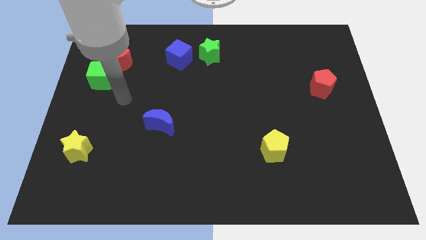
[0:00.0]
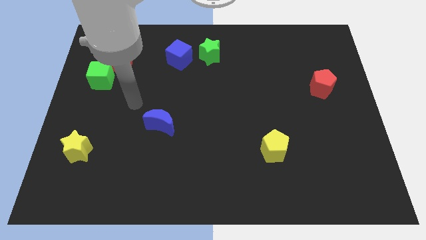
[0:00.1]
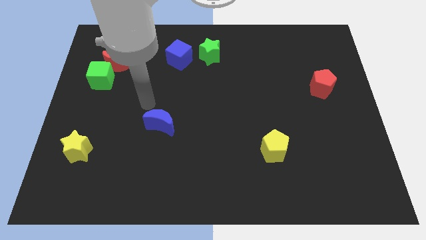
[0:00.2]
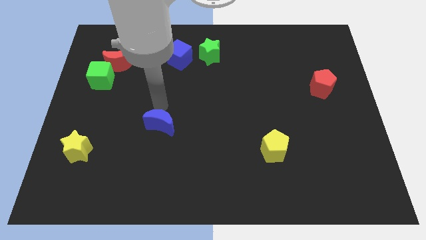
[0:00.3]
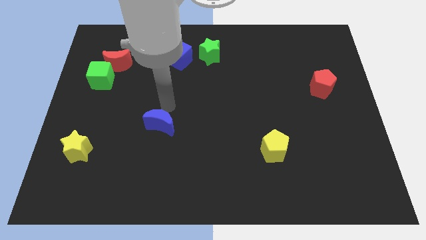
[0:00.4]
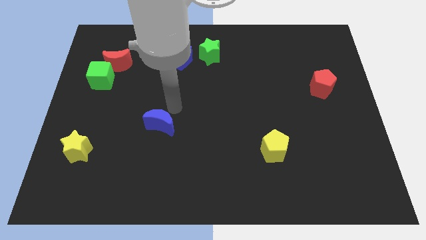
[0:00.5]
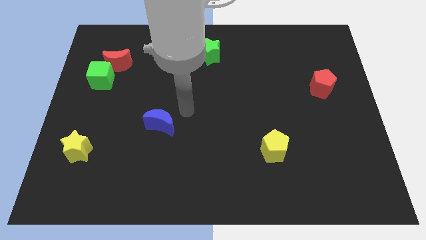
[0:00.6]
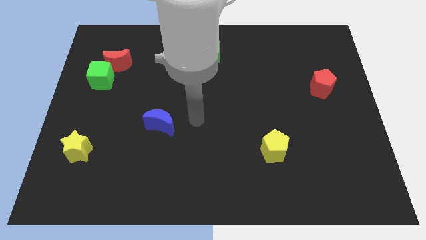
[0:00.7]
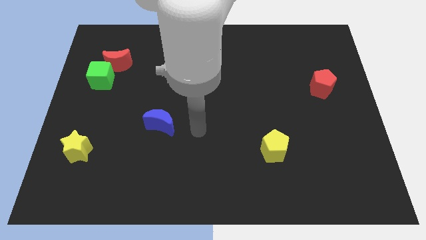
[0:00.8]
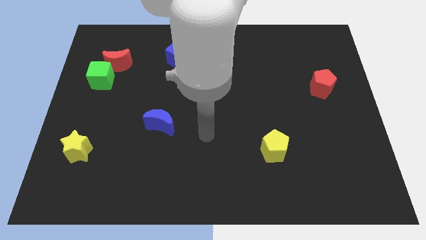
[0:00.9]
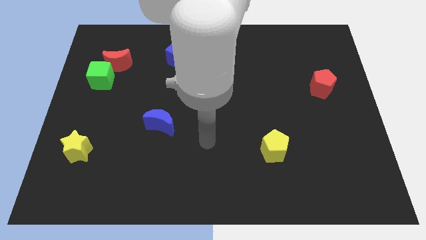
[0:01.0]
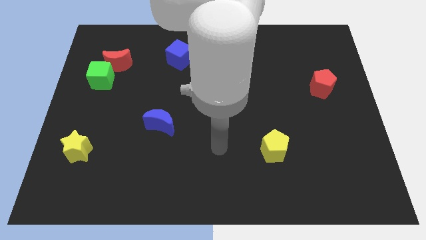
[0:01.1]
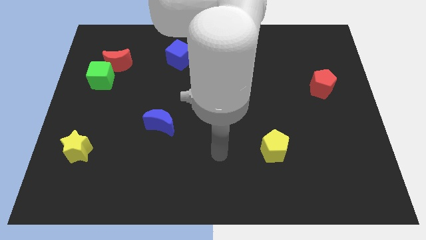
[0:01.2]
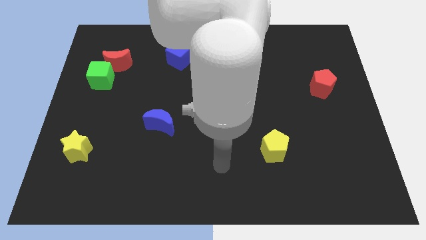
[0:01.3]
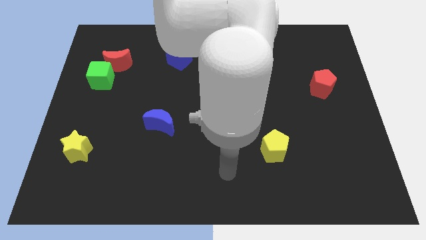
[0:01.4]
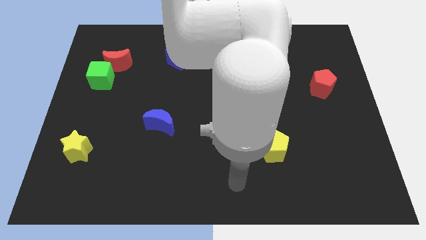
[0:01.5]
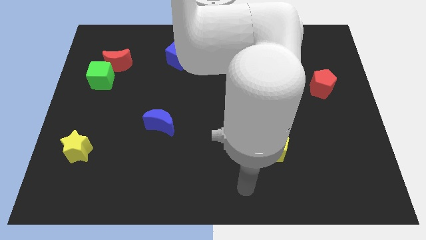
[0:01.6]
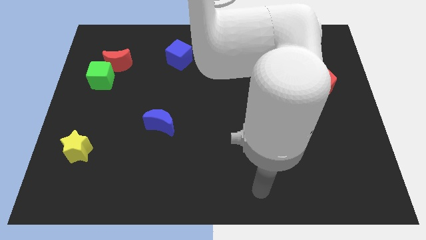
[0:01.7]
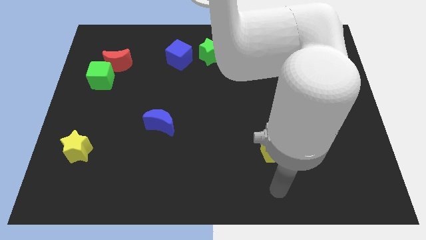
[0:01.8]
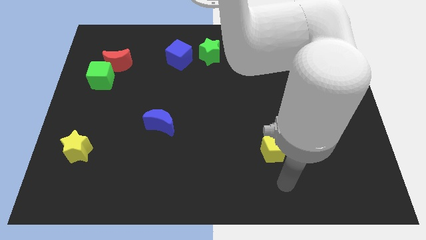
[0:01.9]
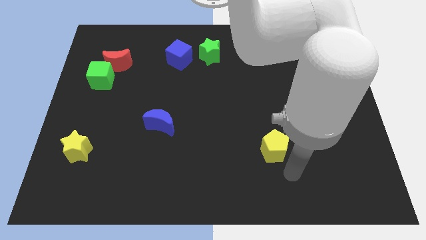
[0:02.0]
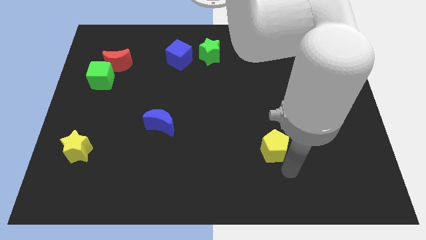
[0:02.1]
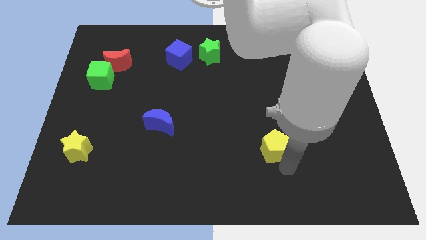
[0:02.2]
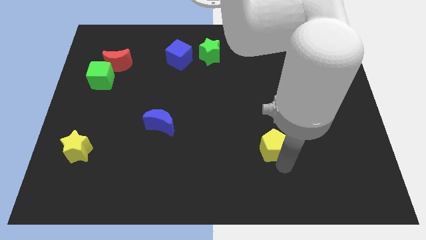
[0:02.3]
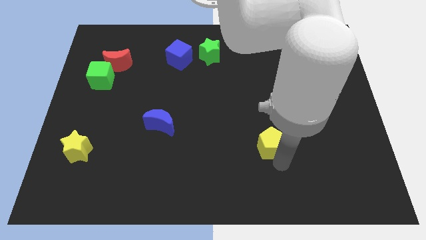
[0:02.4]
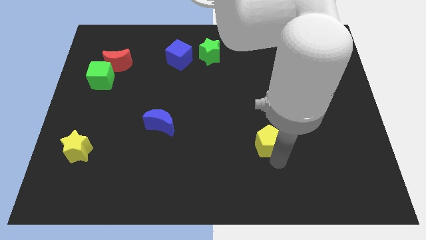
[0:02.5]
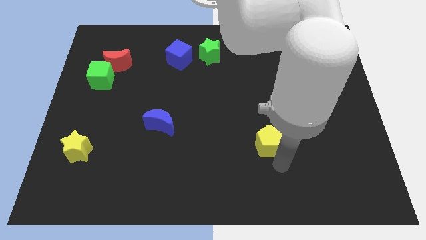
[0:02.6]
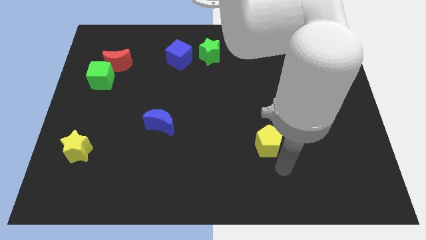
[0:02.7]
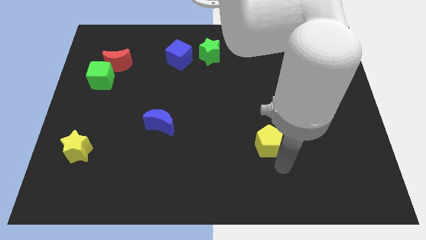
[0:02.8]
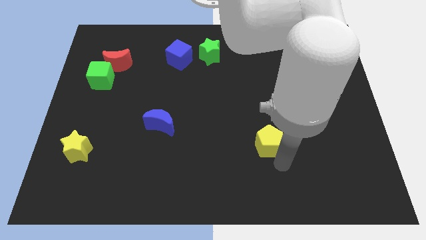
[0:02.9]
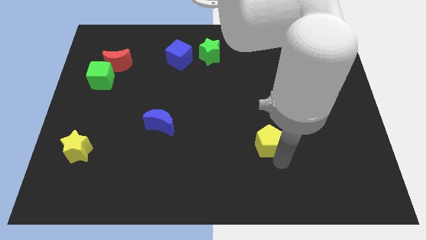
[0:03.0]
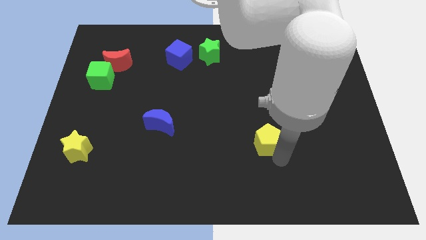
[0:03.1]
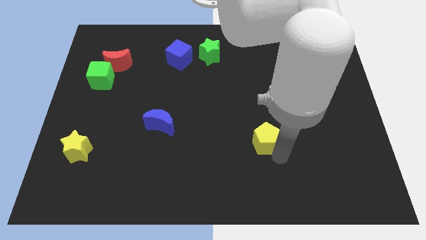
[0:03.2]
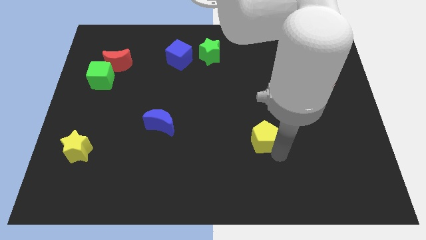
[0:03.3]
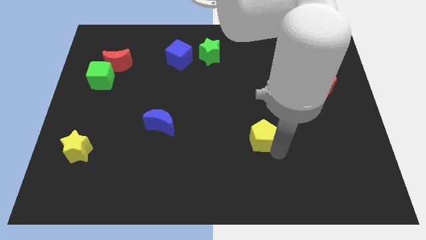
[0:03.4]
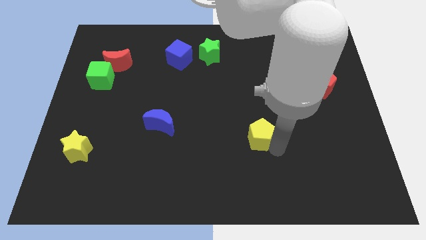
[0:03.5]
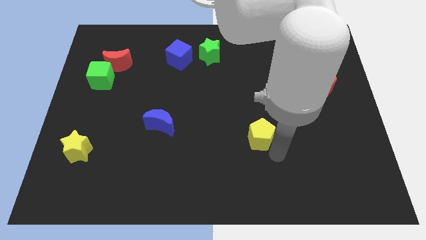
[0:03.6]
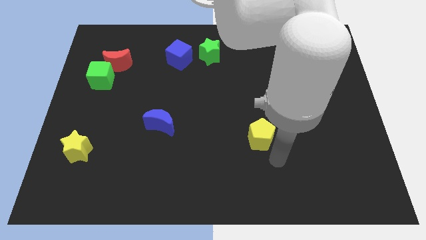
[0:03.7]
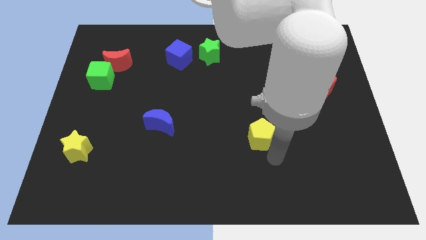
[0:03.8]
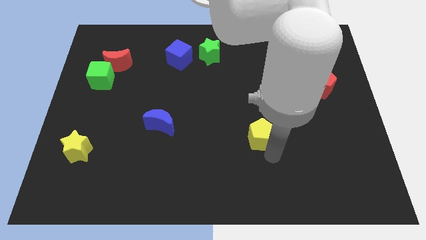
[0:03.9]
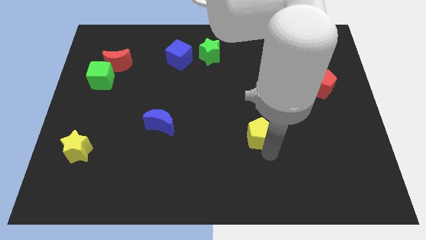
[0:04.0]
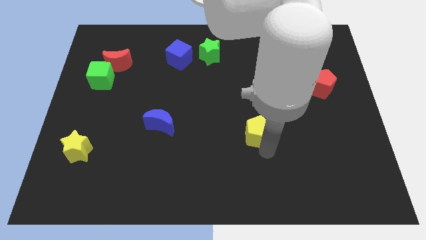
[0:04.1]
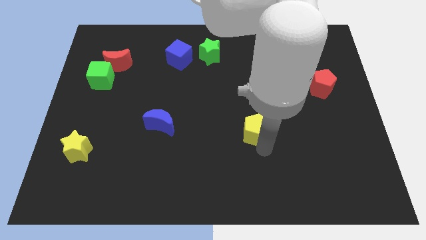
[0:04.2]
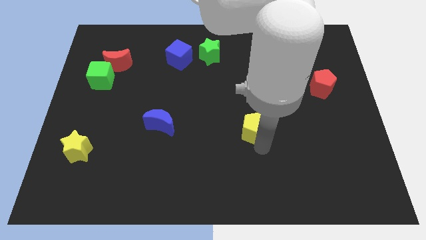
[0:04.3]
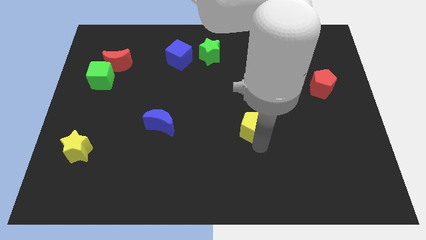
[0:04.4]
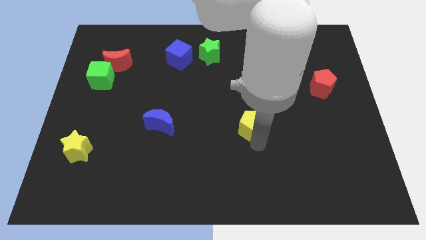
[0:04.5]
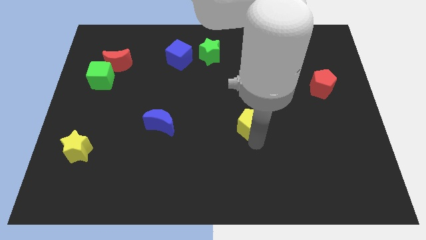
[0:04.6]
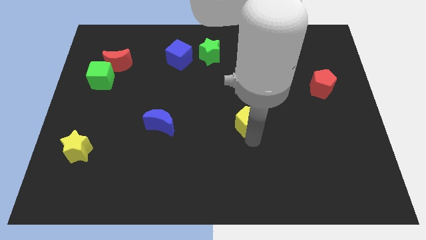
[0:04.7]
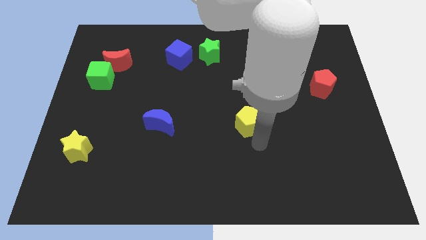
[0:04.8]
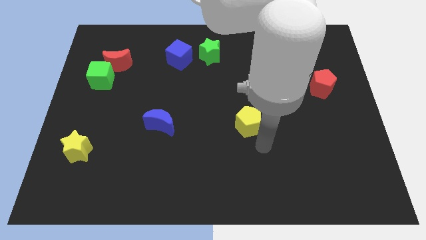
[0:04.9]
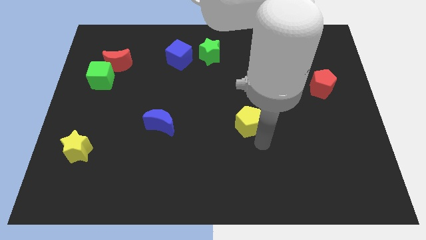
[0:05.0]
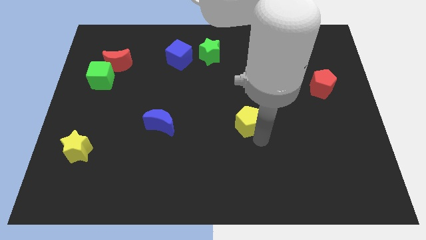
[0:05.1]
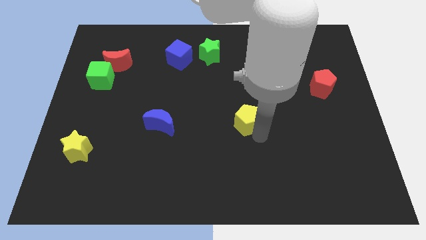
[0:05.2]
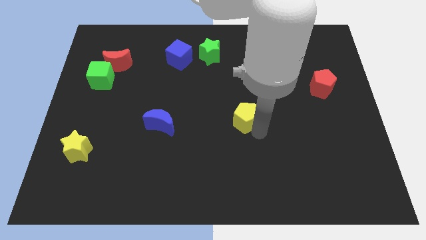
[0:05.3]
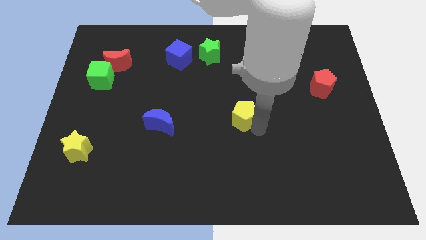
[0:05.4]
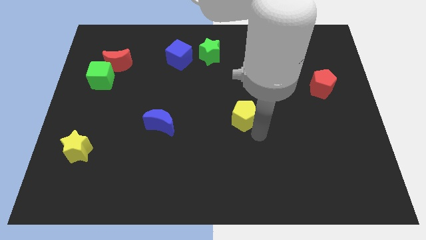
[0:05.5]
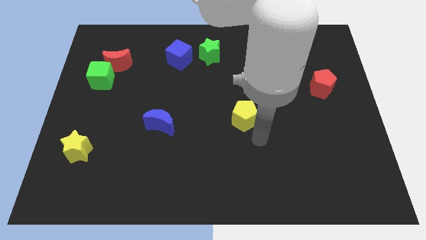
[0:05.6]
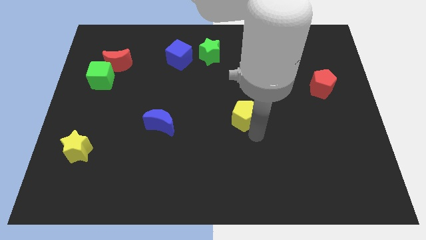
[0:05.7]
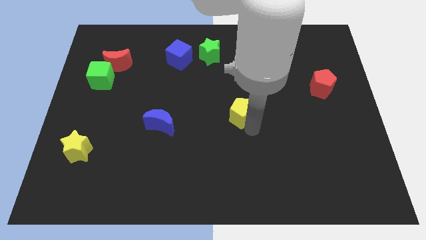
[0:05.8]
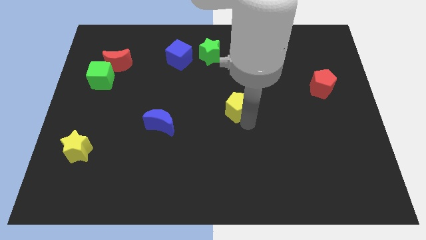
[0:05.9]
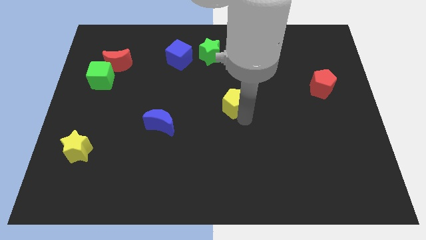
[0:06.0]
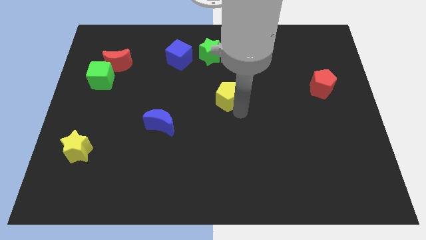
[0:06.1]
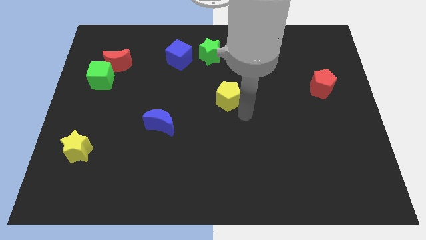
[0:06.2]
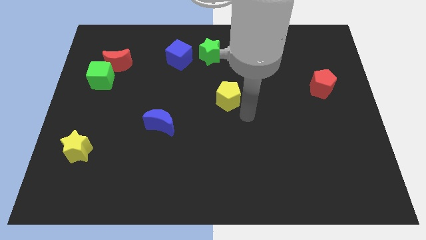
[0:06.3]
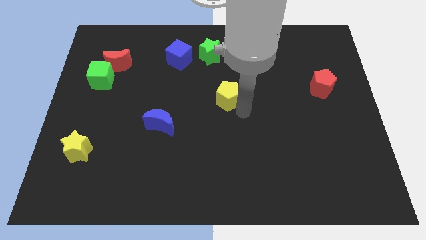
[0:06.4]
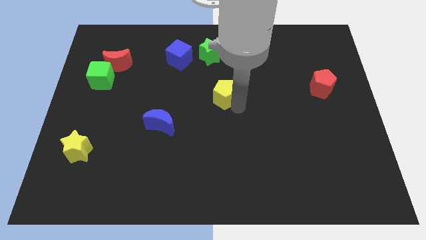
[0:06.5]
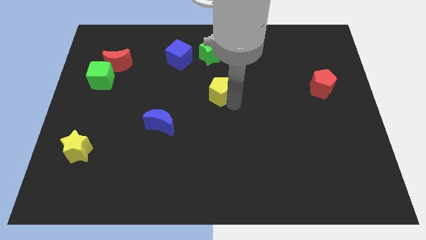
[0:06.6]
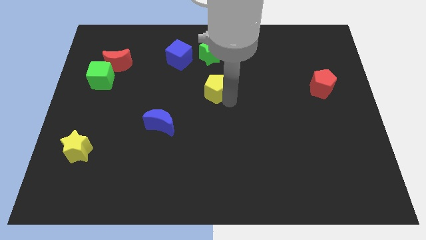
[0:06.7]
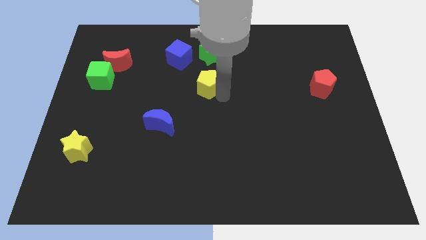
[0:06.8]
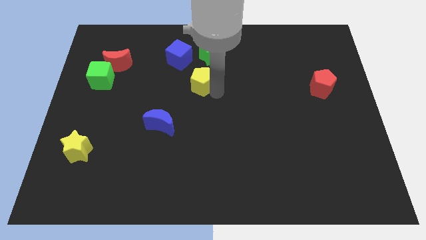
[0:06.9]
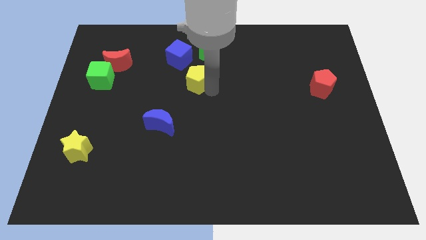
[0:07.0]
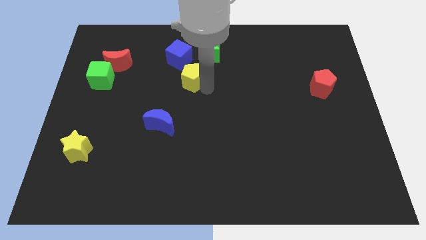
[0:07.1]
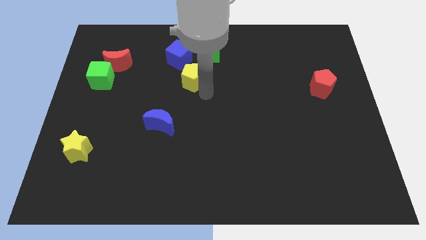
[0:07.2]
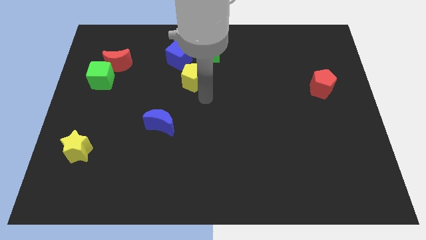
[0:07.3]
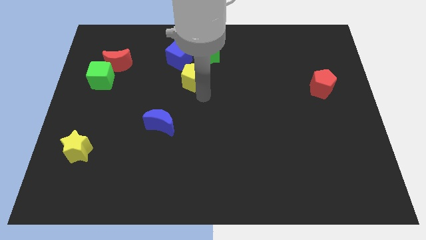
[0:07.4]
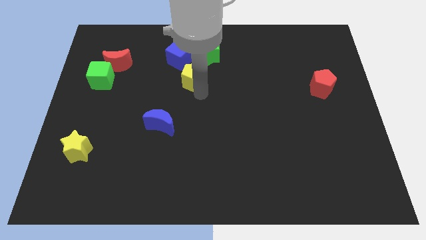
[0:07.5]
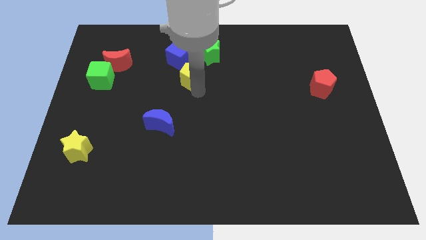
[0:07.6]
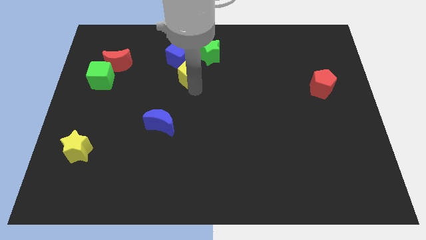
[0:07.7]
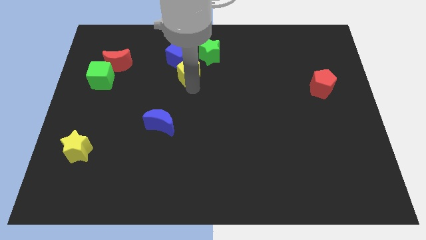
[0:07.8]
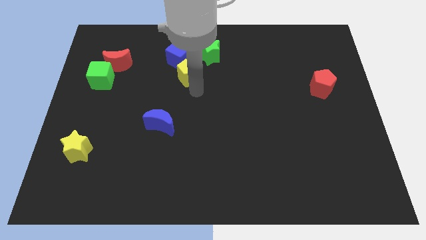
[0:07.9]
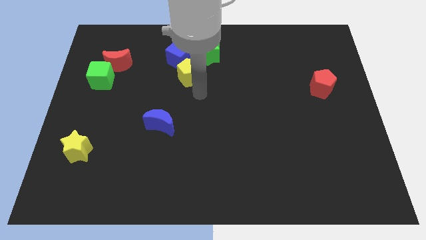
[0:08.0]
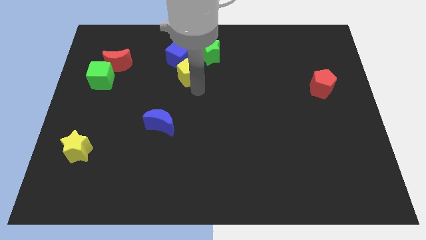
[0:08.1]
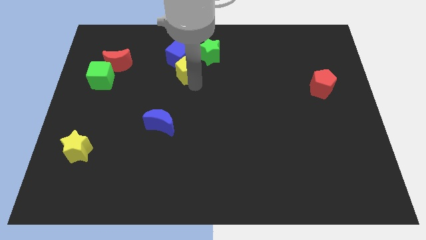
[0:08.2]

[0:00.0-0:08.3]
move the yellow pentagon next to the blue cube

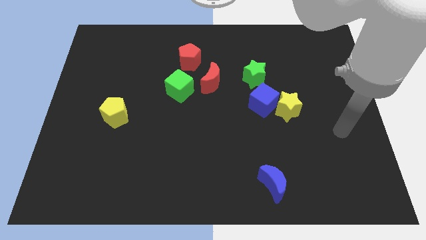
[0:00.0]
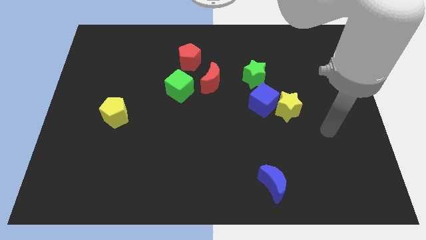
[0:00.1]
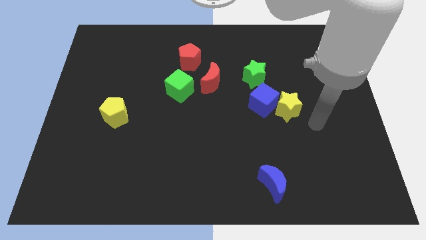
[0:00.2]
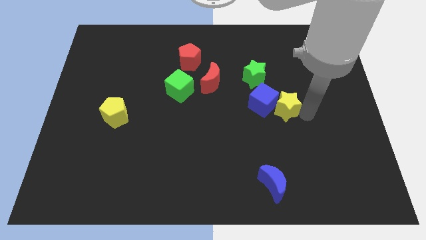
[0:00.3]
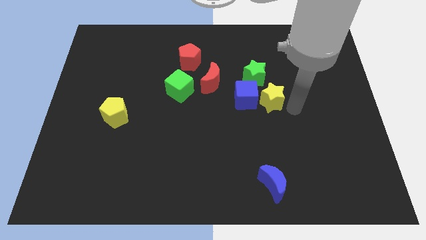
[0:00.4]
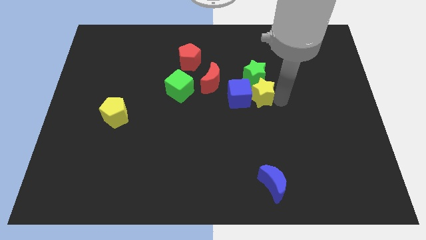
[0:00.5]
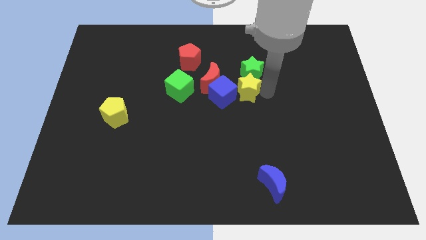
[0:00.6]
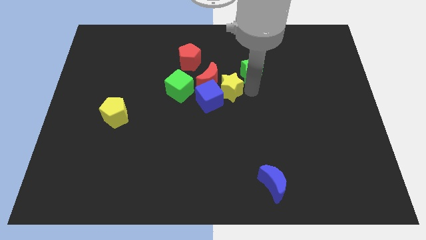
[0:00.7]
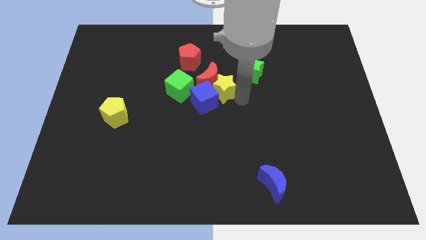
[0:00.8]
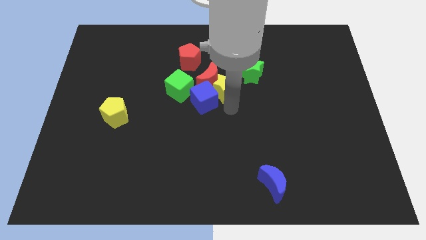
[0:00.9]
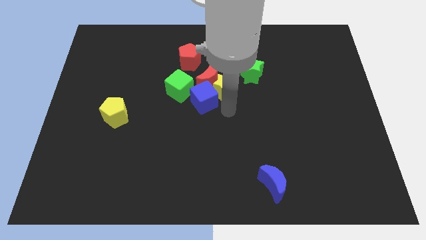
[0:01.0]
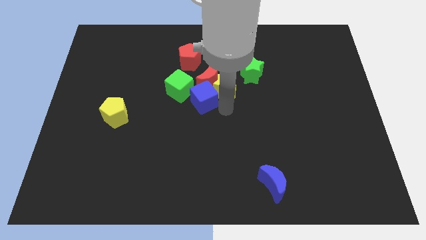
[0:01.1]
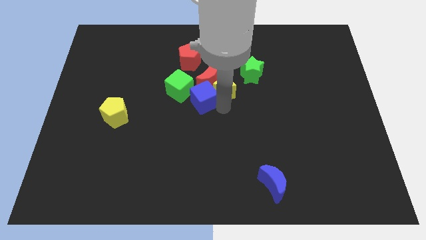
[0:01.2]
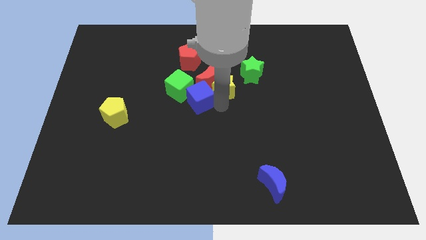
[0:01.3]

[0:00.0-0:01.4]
move the blue cube towards the green cube
